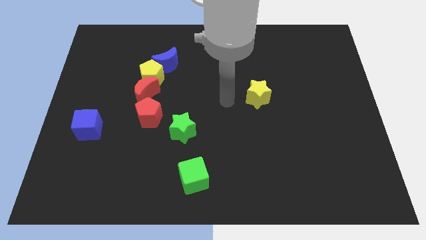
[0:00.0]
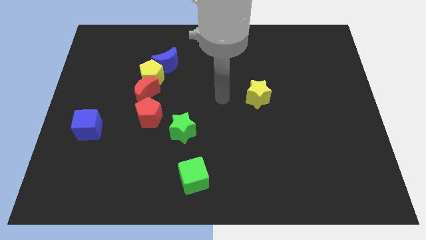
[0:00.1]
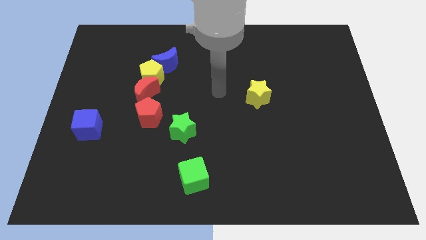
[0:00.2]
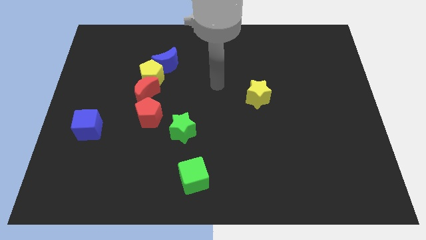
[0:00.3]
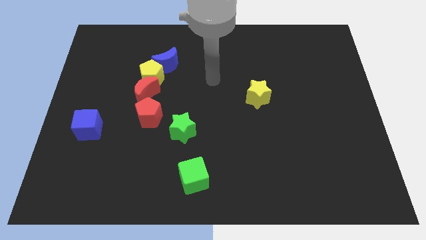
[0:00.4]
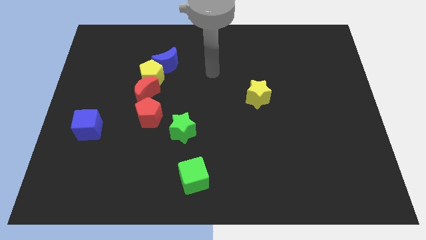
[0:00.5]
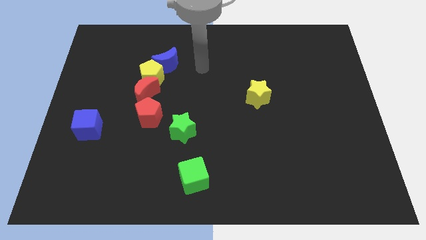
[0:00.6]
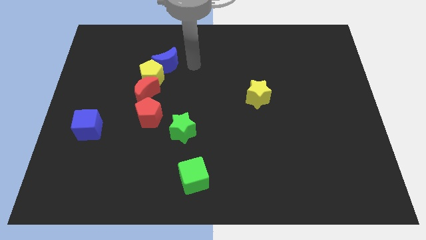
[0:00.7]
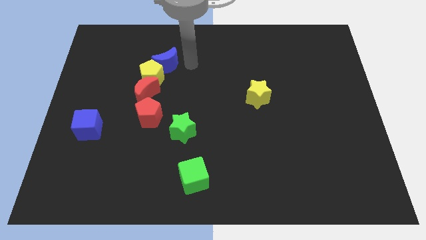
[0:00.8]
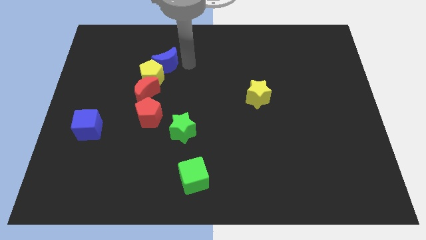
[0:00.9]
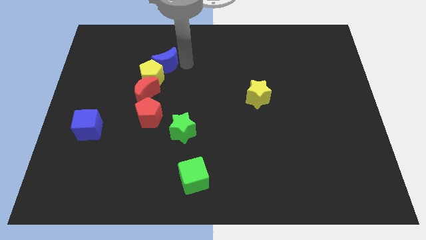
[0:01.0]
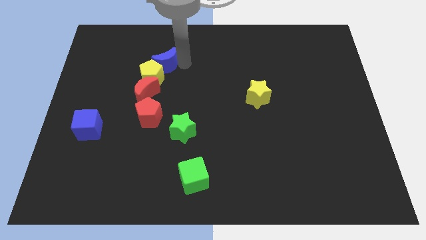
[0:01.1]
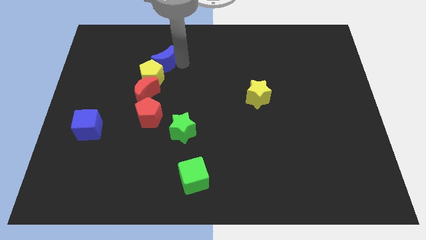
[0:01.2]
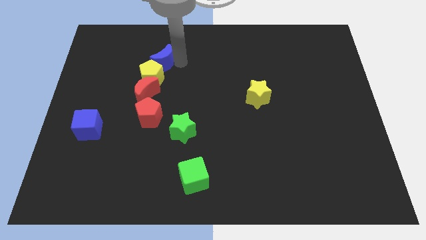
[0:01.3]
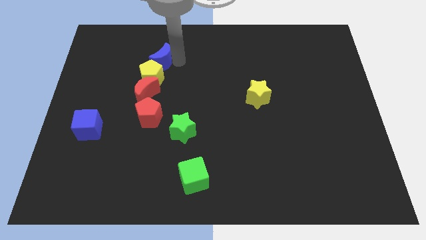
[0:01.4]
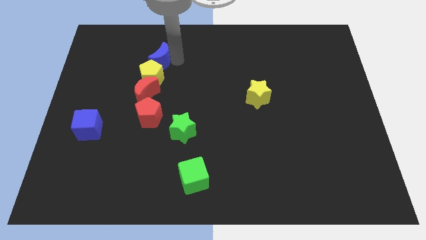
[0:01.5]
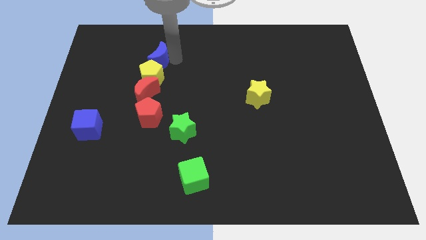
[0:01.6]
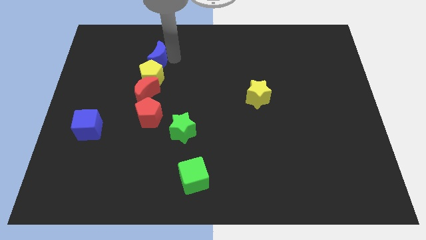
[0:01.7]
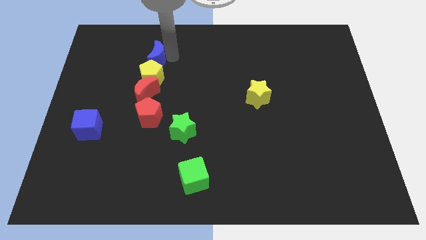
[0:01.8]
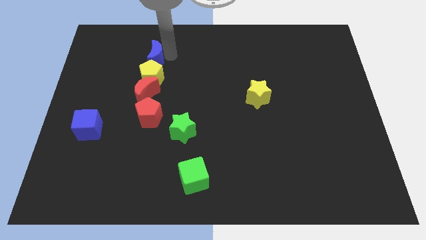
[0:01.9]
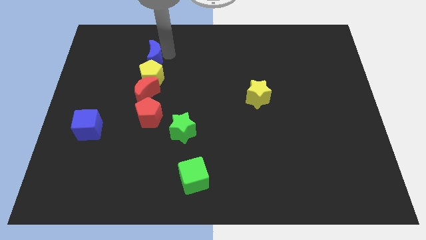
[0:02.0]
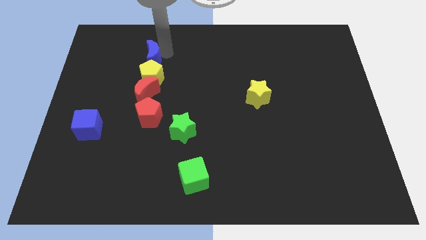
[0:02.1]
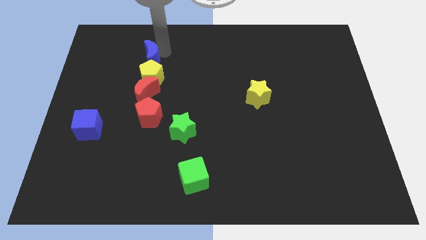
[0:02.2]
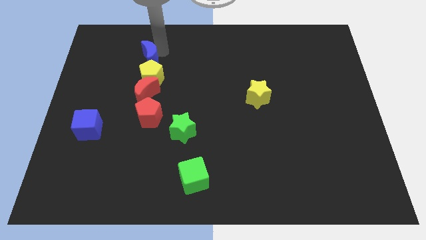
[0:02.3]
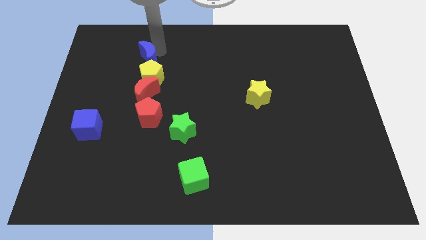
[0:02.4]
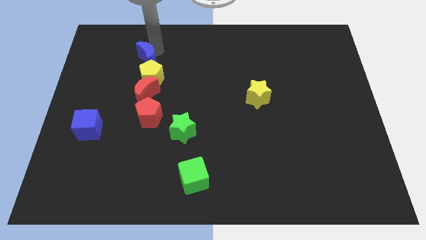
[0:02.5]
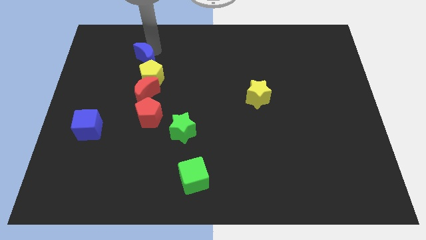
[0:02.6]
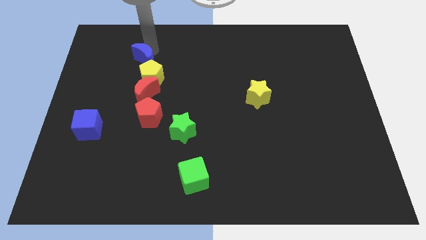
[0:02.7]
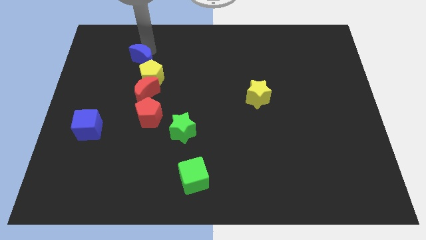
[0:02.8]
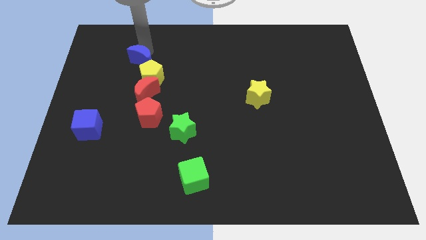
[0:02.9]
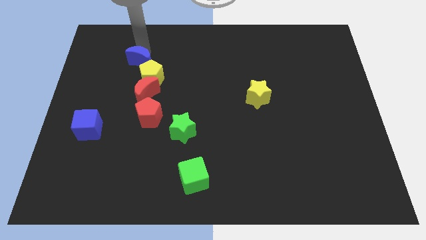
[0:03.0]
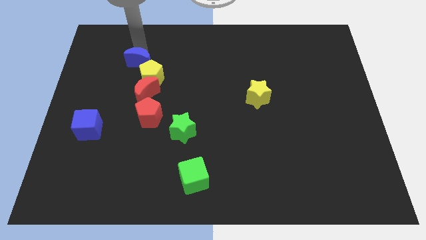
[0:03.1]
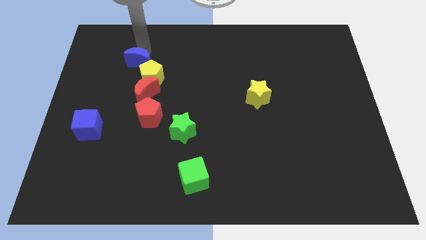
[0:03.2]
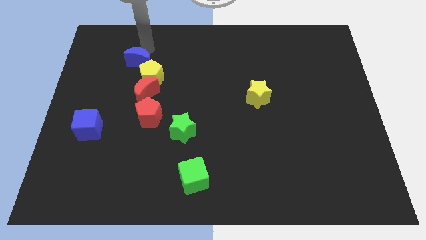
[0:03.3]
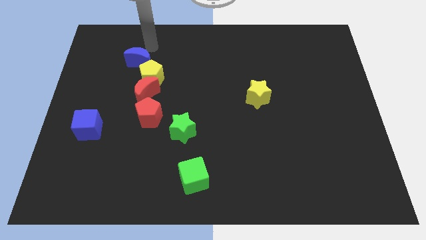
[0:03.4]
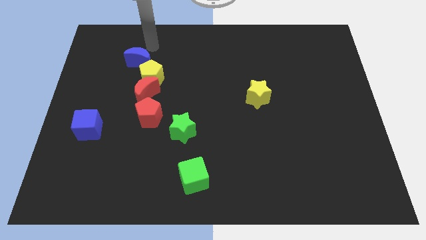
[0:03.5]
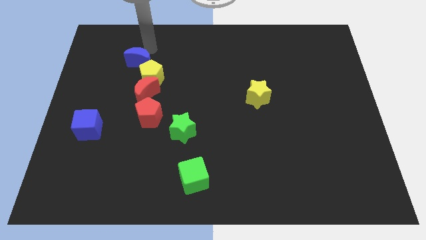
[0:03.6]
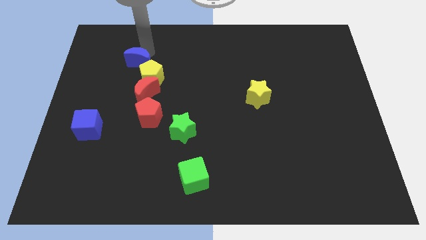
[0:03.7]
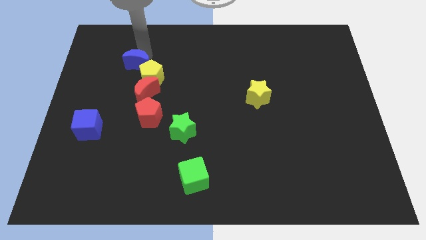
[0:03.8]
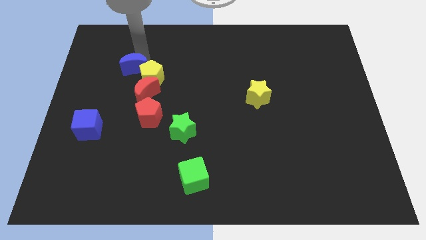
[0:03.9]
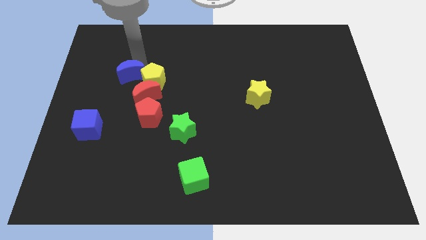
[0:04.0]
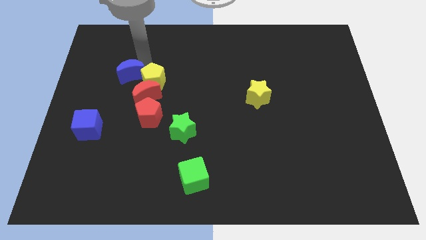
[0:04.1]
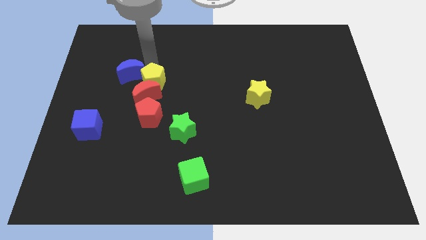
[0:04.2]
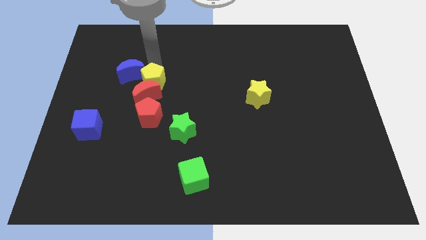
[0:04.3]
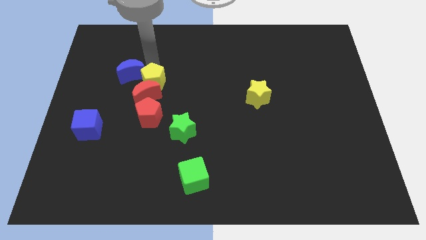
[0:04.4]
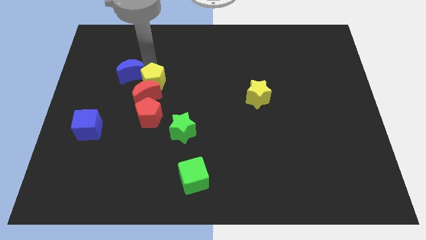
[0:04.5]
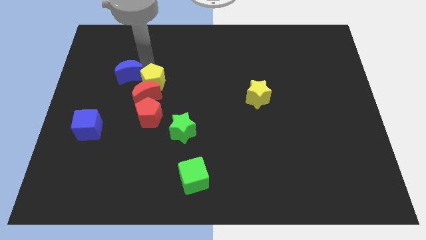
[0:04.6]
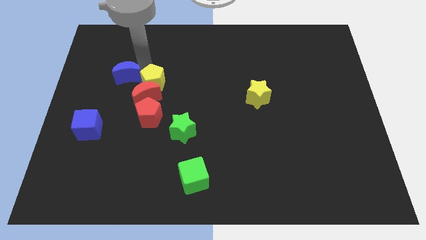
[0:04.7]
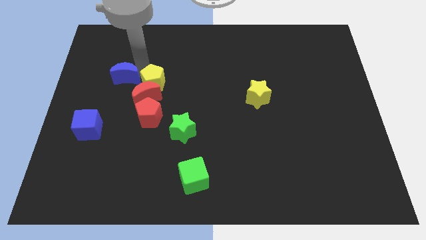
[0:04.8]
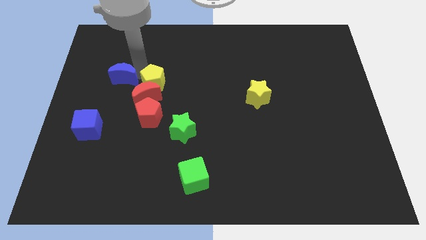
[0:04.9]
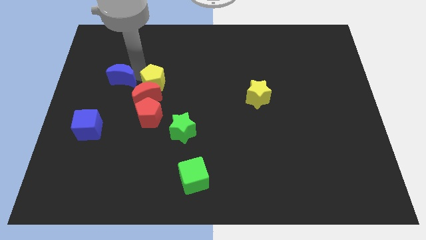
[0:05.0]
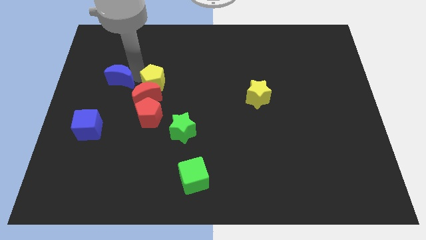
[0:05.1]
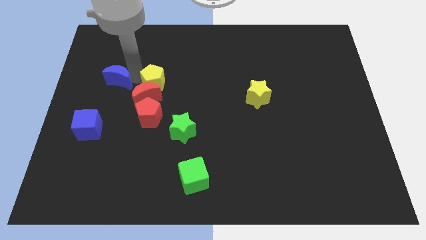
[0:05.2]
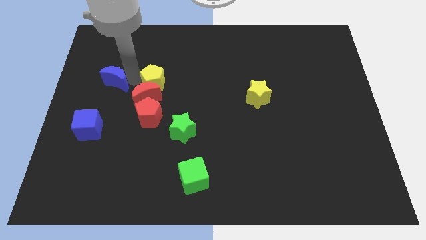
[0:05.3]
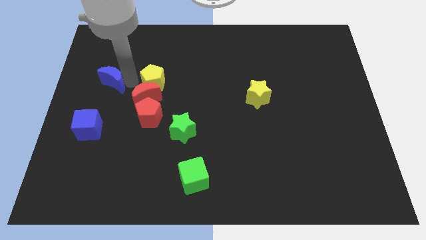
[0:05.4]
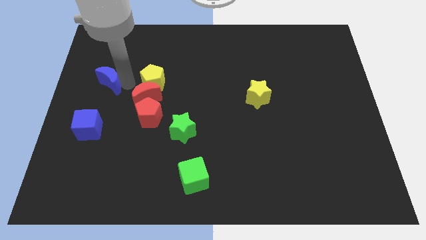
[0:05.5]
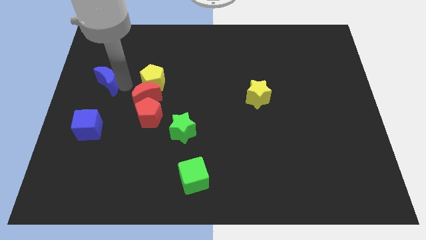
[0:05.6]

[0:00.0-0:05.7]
push the blue moon to the center left
